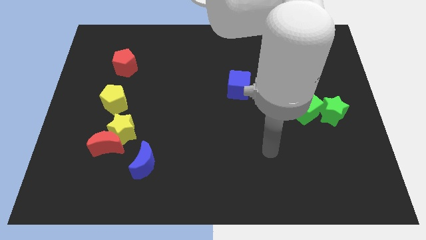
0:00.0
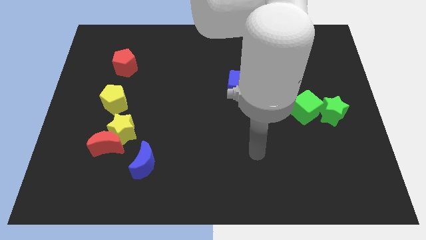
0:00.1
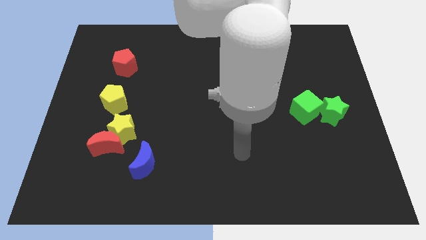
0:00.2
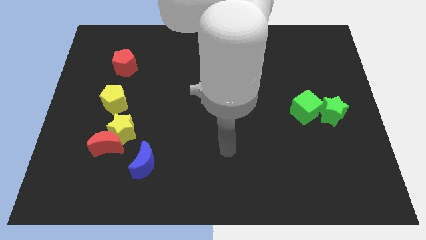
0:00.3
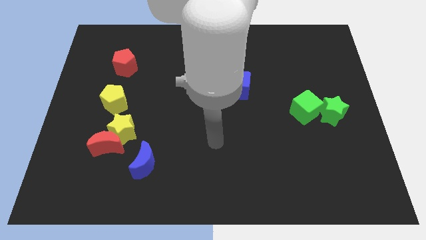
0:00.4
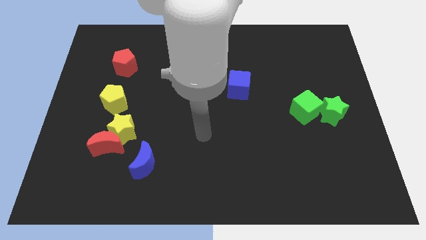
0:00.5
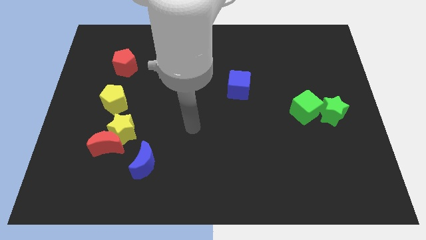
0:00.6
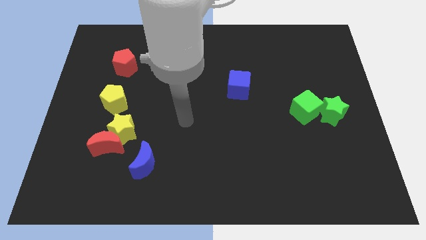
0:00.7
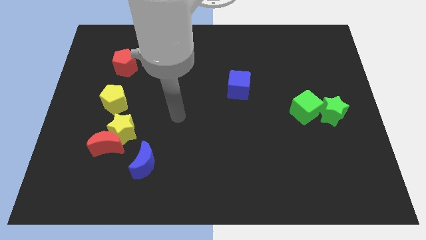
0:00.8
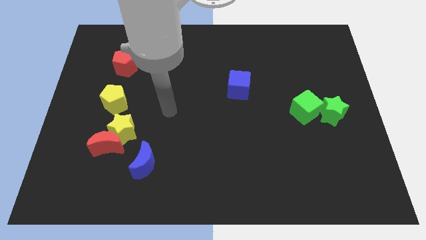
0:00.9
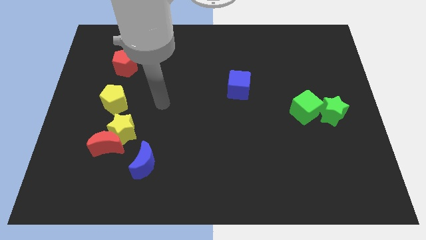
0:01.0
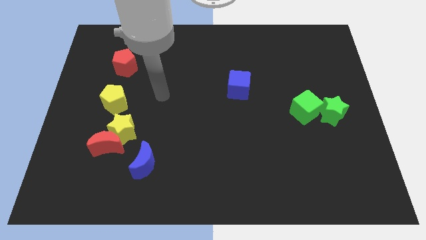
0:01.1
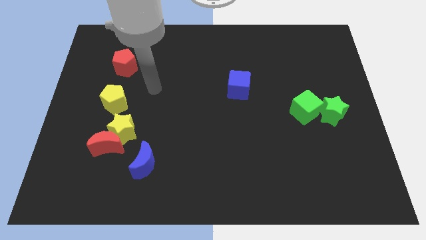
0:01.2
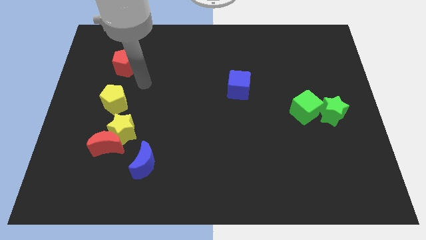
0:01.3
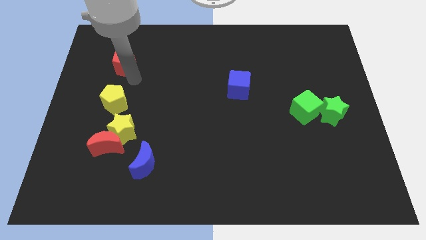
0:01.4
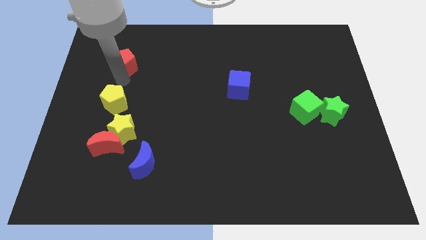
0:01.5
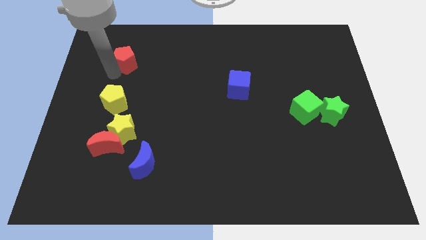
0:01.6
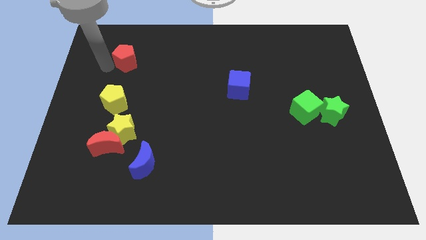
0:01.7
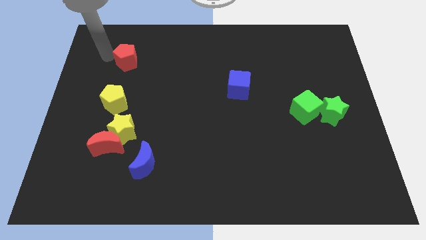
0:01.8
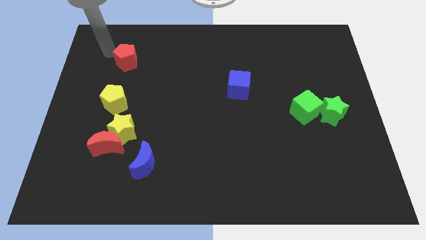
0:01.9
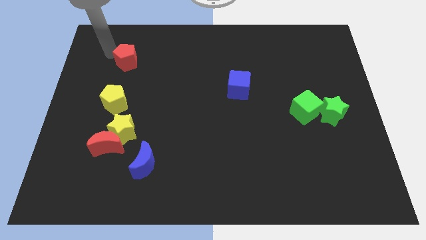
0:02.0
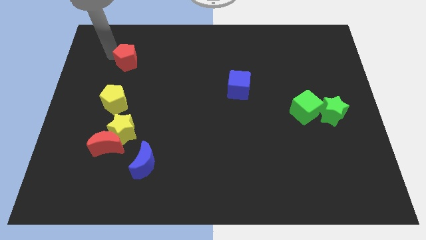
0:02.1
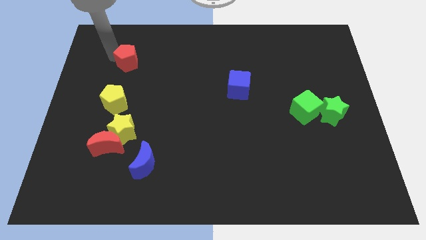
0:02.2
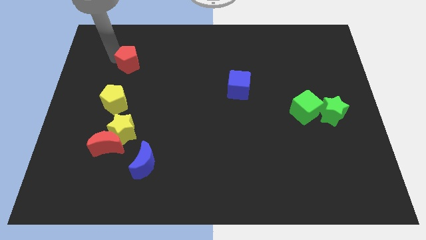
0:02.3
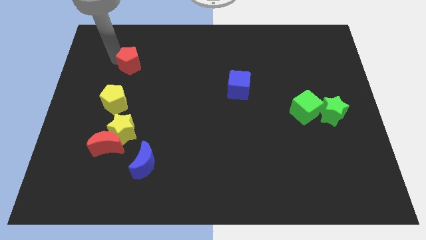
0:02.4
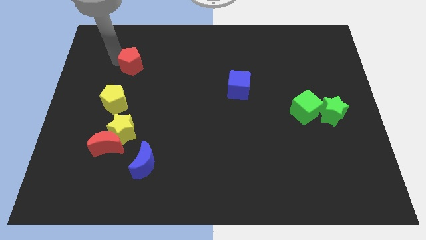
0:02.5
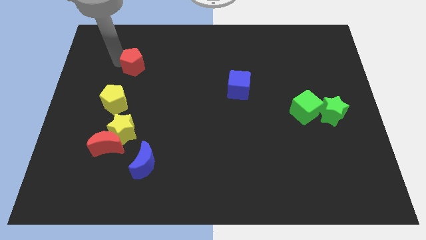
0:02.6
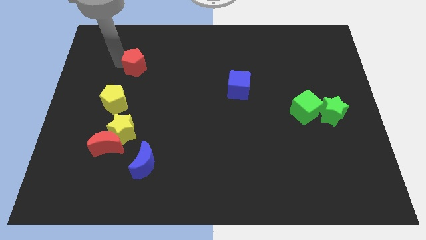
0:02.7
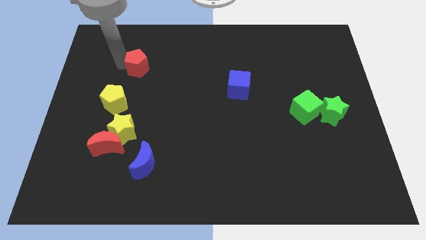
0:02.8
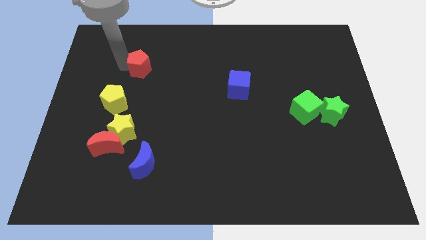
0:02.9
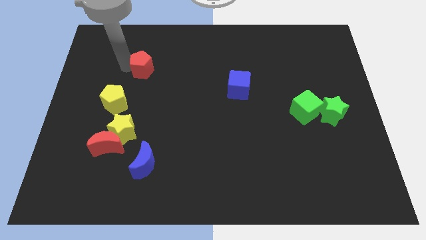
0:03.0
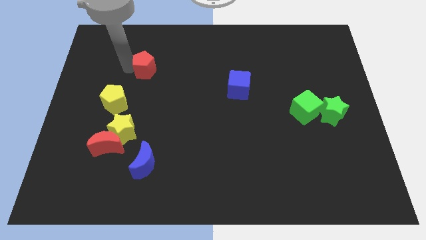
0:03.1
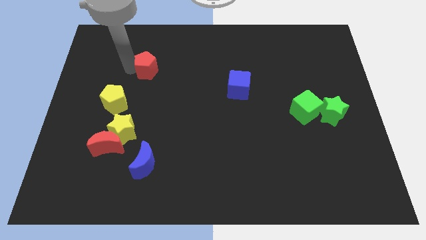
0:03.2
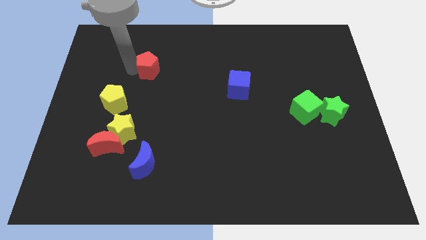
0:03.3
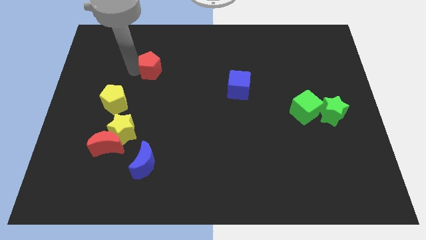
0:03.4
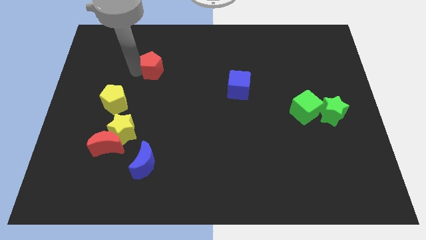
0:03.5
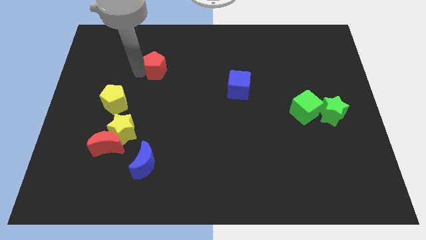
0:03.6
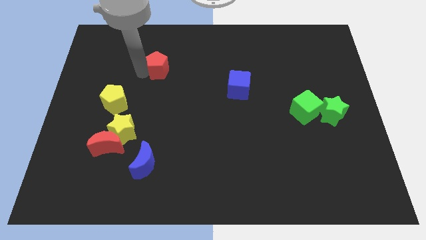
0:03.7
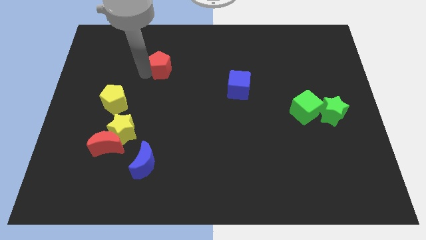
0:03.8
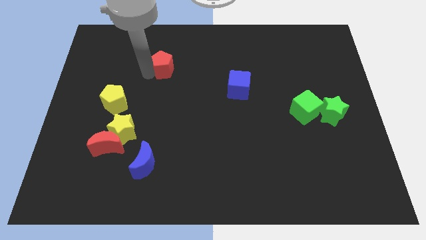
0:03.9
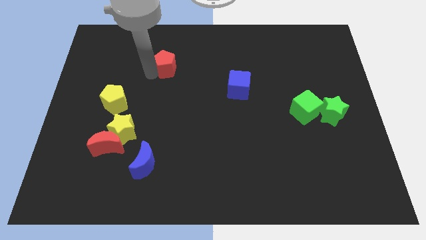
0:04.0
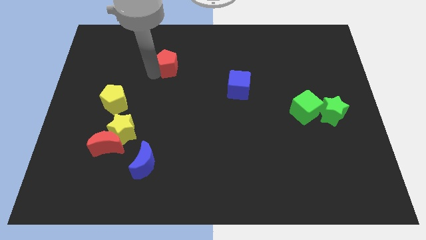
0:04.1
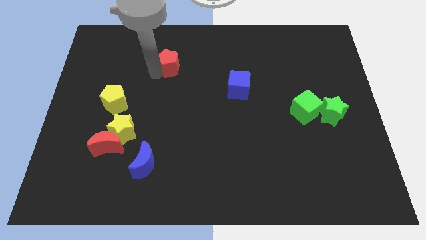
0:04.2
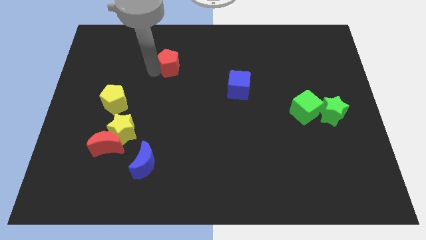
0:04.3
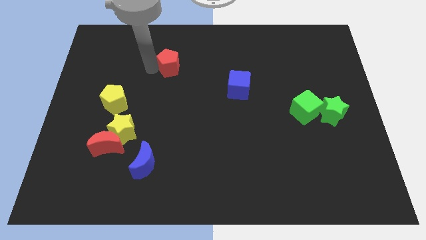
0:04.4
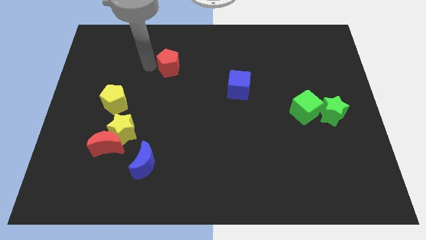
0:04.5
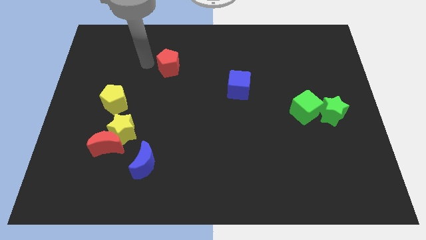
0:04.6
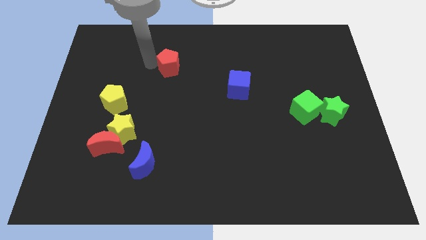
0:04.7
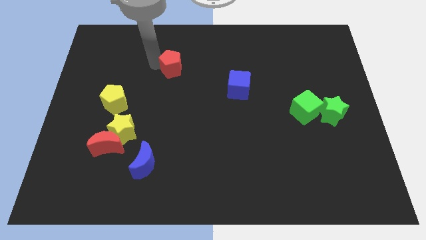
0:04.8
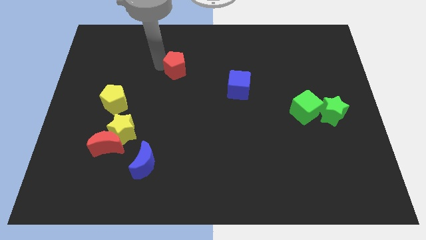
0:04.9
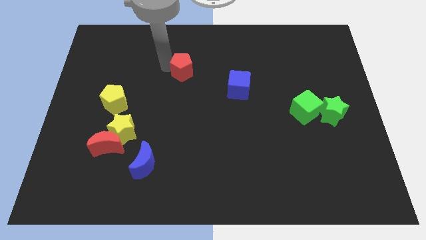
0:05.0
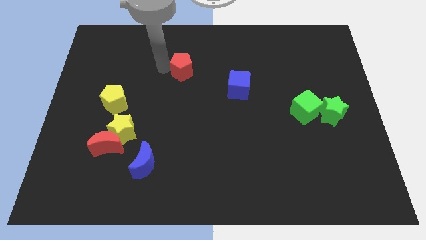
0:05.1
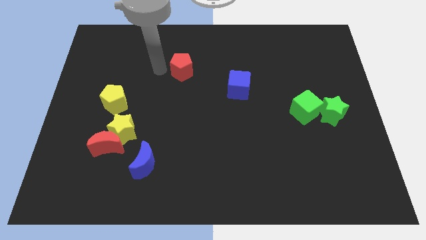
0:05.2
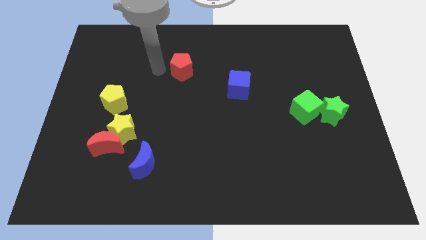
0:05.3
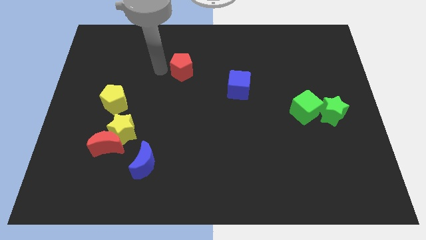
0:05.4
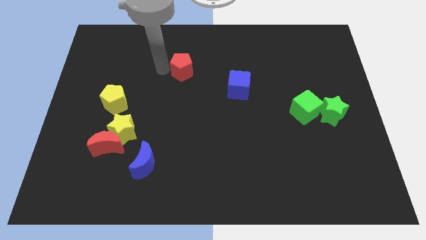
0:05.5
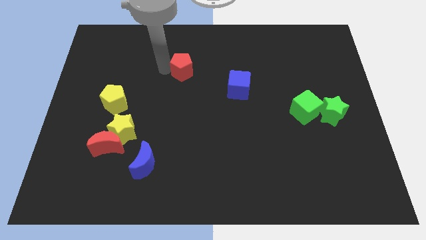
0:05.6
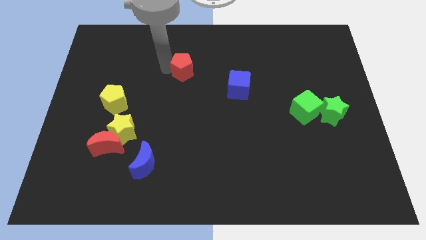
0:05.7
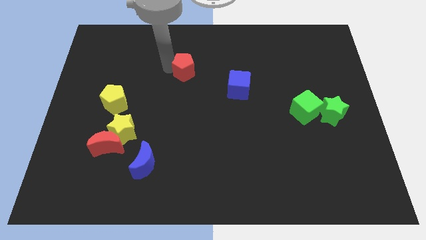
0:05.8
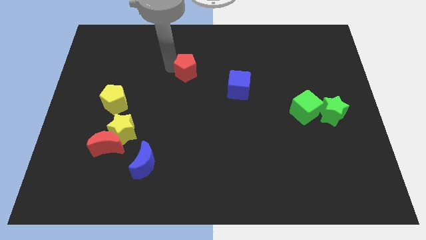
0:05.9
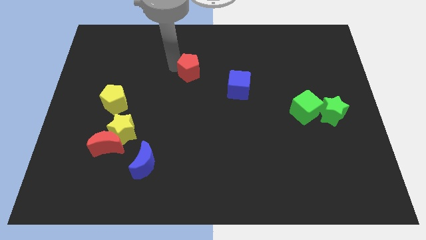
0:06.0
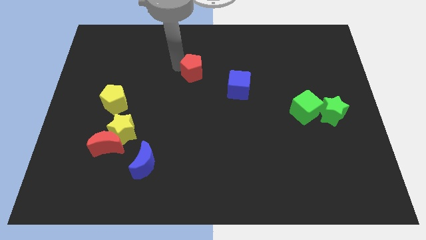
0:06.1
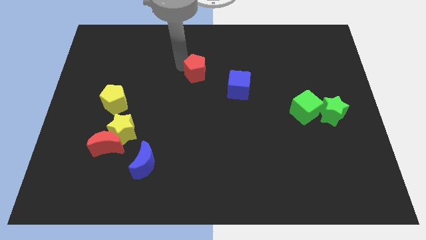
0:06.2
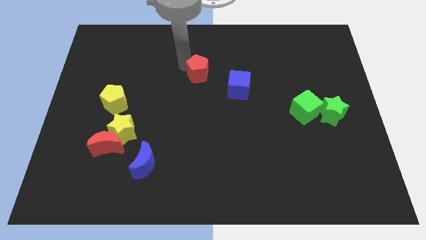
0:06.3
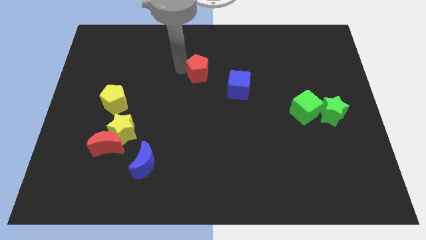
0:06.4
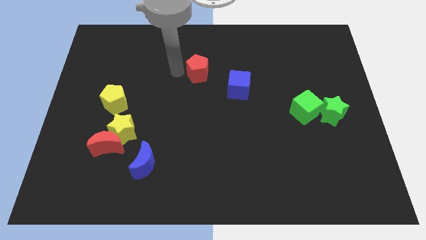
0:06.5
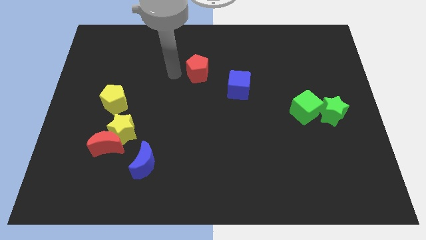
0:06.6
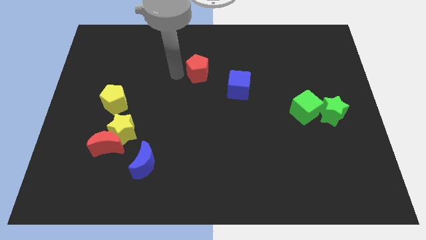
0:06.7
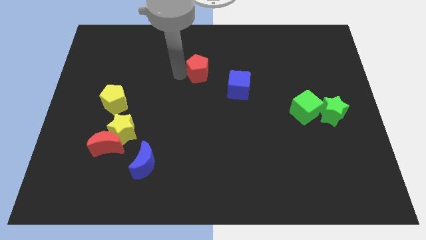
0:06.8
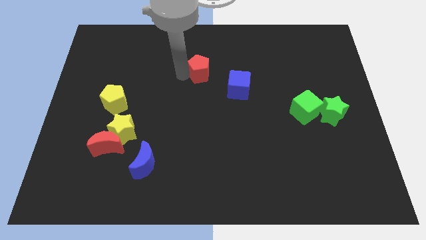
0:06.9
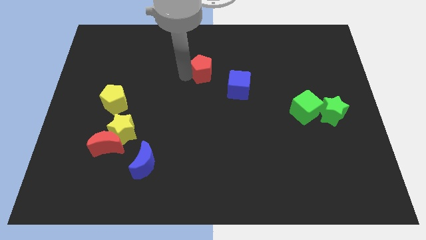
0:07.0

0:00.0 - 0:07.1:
push the red pentagon right

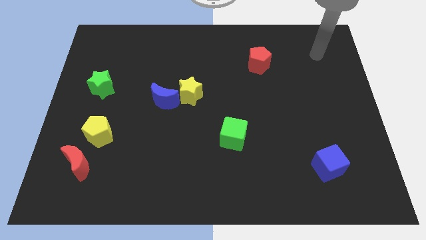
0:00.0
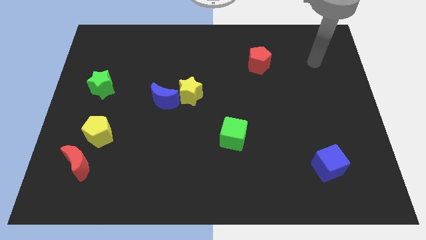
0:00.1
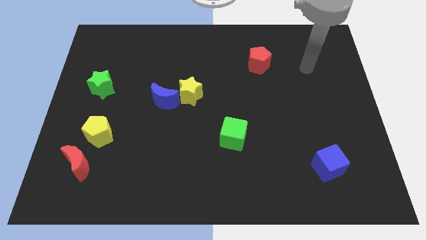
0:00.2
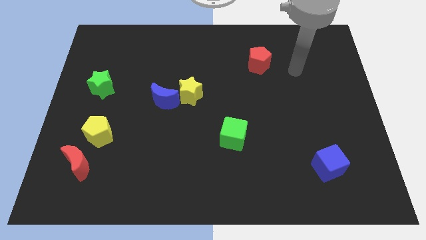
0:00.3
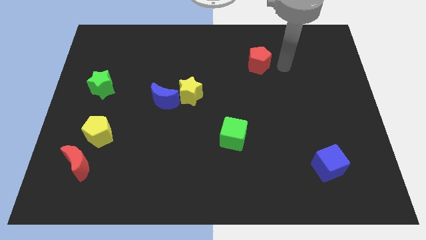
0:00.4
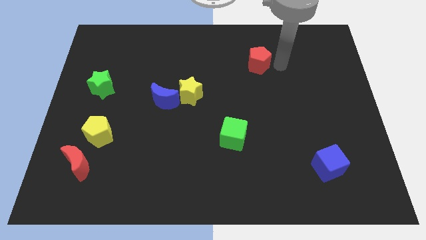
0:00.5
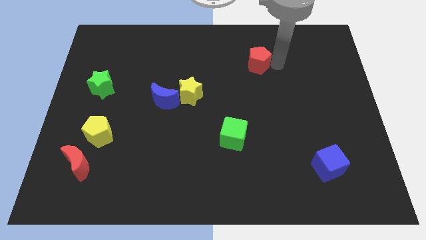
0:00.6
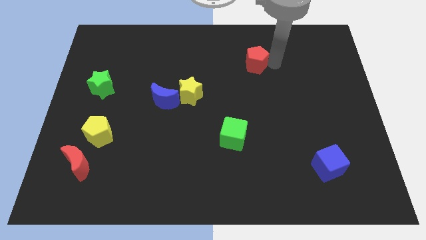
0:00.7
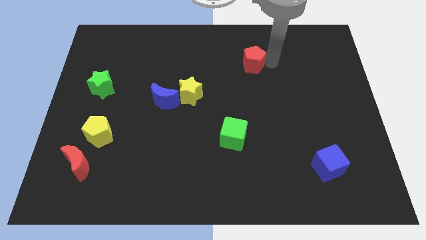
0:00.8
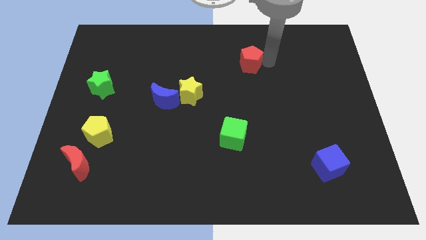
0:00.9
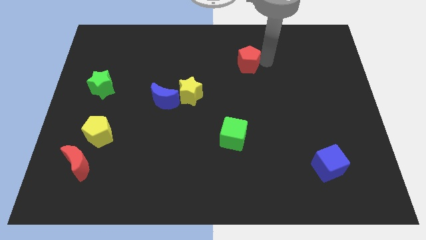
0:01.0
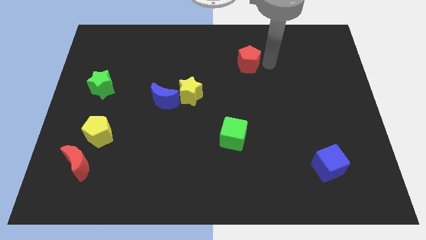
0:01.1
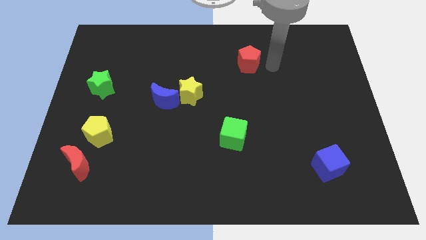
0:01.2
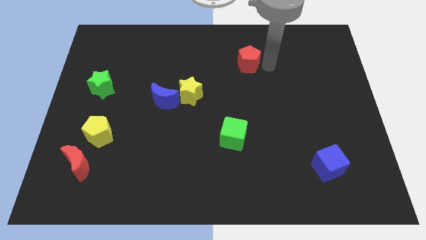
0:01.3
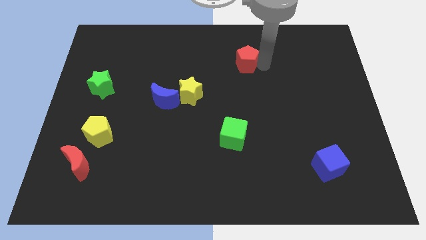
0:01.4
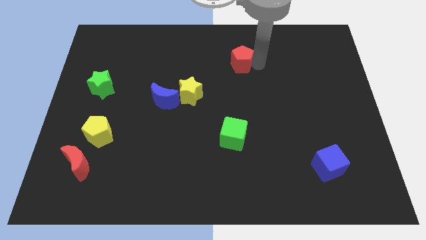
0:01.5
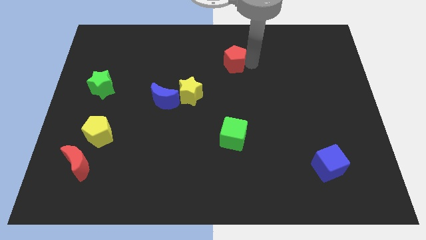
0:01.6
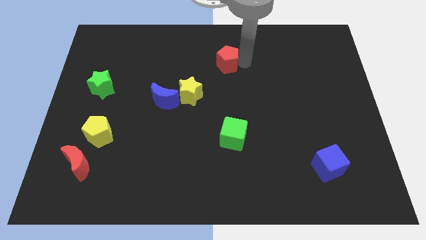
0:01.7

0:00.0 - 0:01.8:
slightly move the red pentagon to the left
